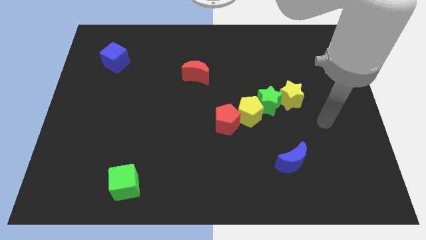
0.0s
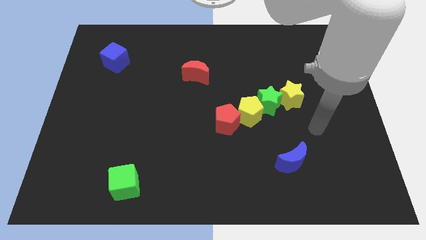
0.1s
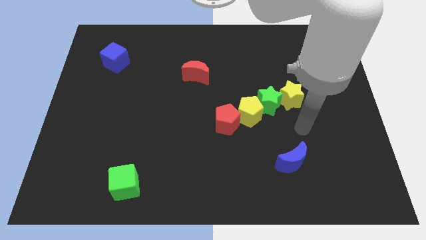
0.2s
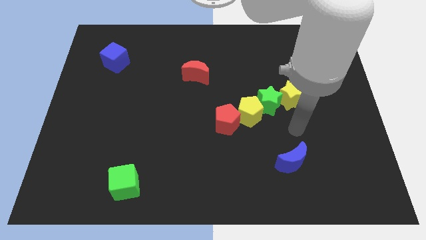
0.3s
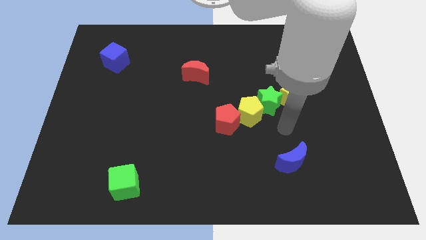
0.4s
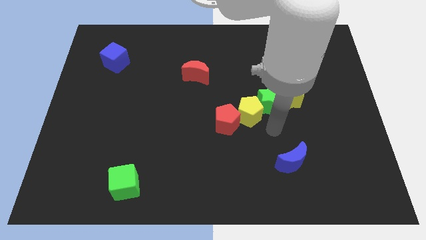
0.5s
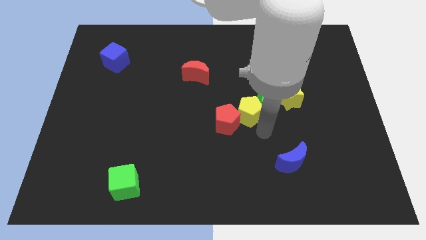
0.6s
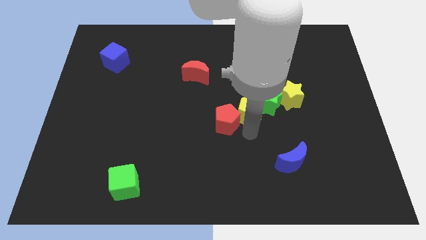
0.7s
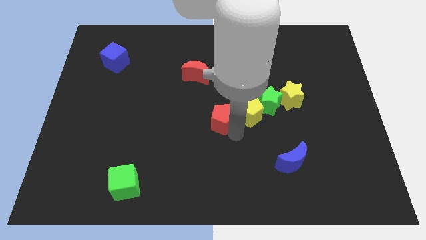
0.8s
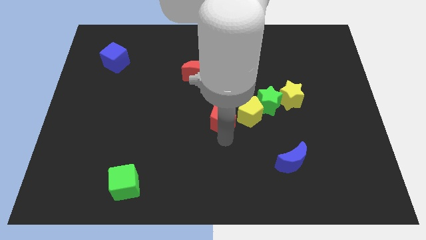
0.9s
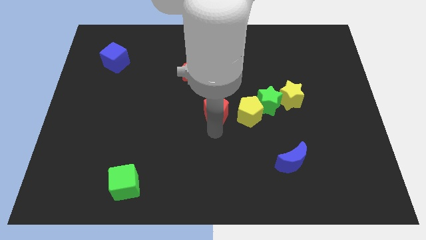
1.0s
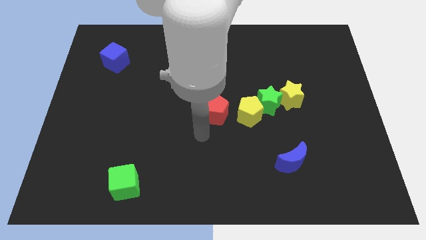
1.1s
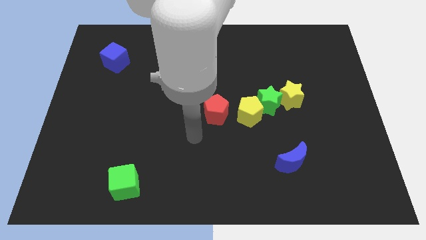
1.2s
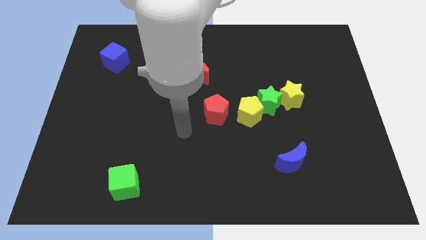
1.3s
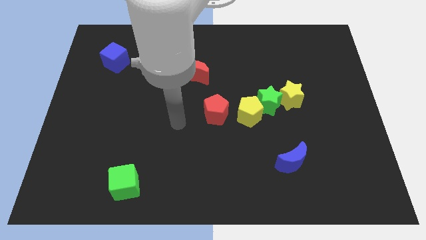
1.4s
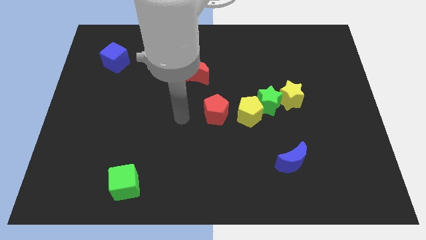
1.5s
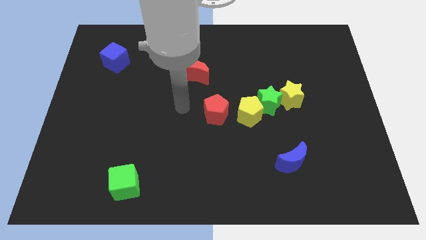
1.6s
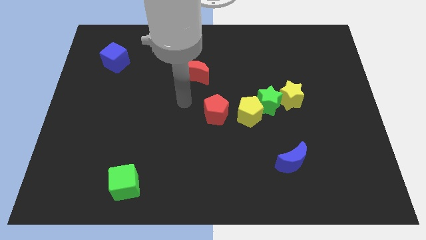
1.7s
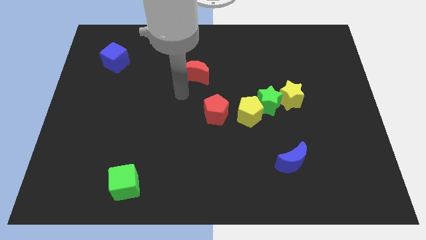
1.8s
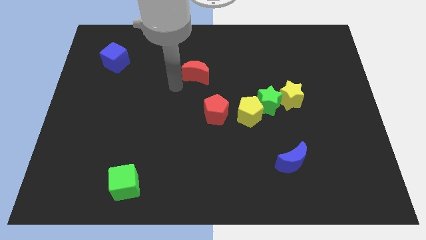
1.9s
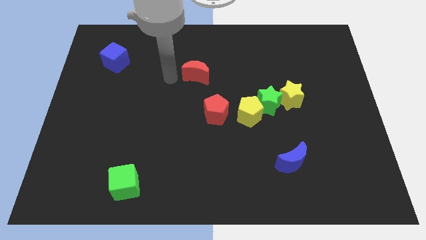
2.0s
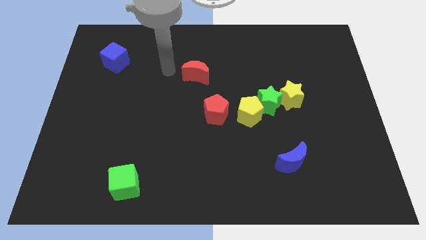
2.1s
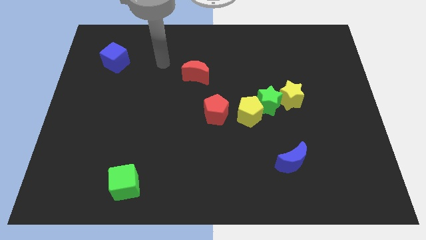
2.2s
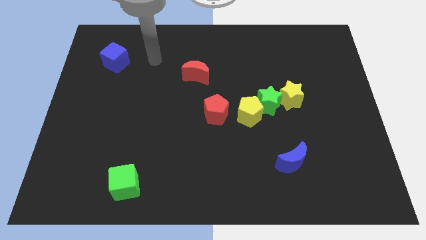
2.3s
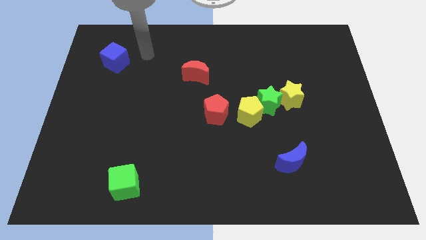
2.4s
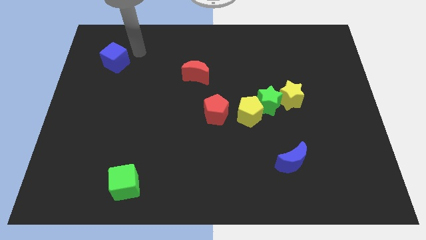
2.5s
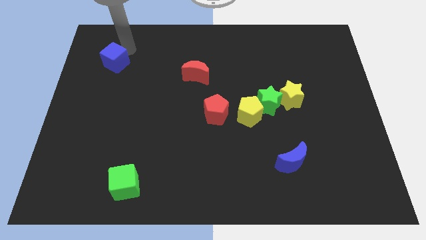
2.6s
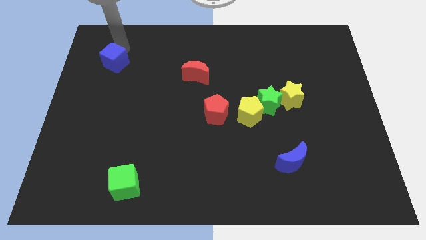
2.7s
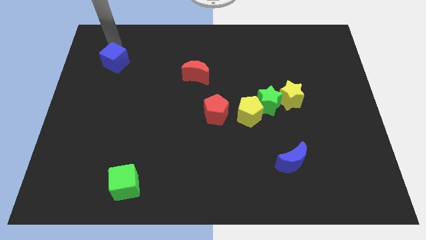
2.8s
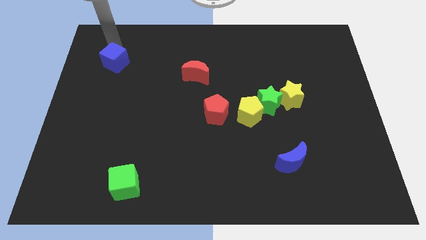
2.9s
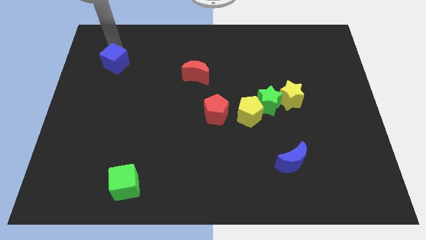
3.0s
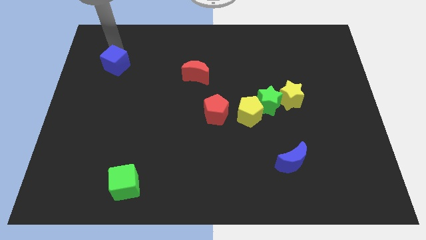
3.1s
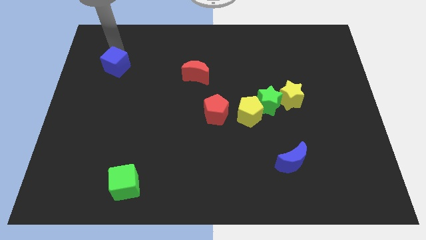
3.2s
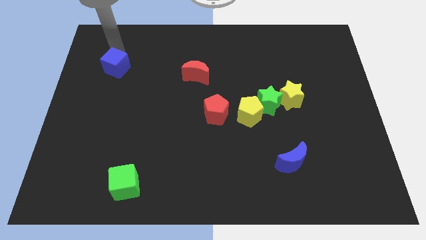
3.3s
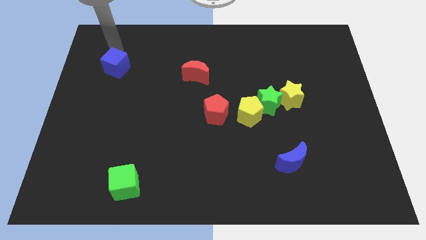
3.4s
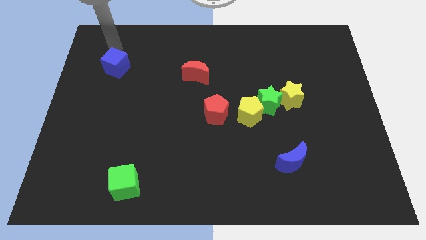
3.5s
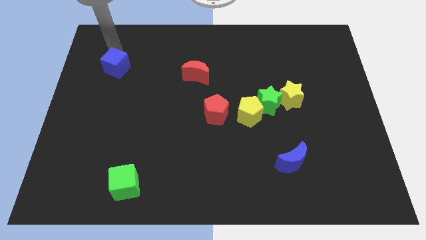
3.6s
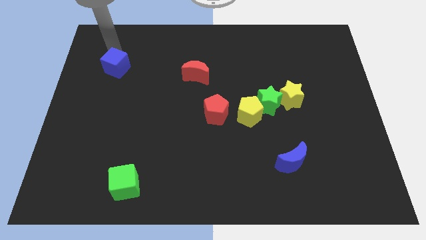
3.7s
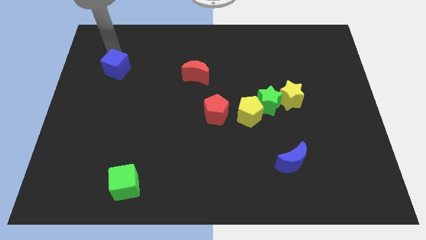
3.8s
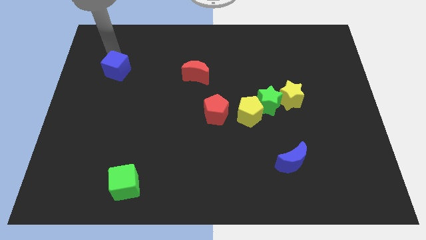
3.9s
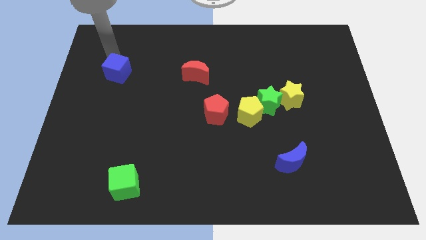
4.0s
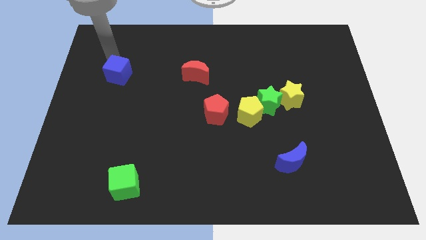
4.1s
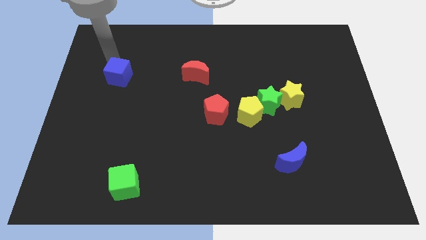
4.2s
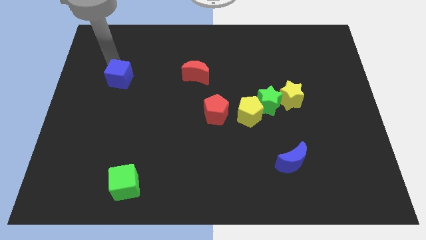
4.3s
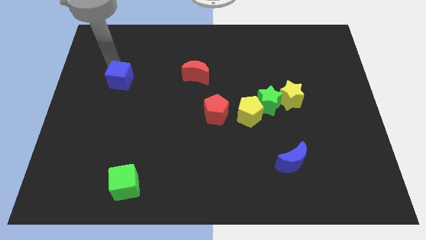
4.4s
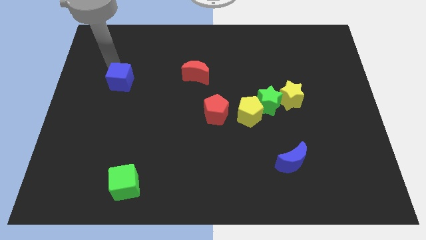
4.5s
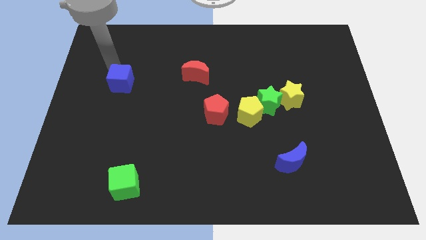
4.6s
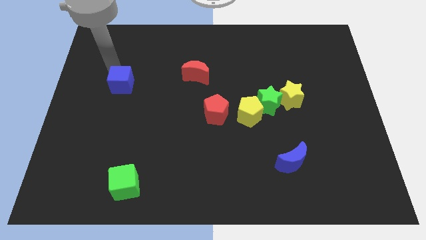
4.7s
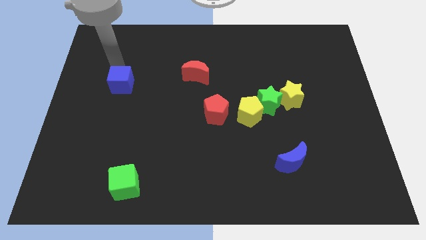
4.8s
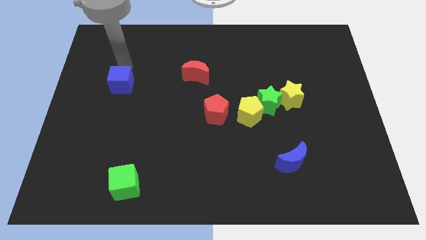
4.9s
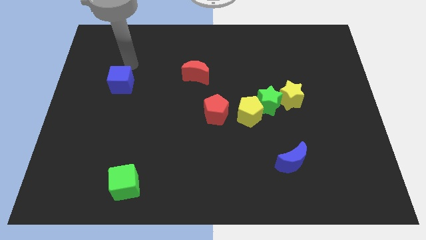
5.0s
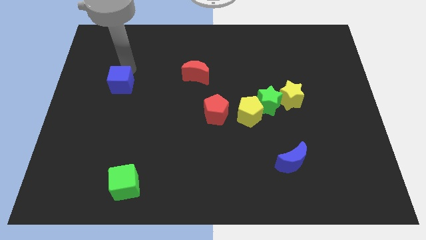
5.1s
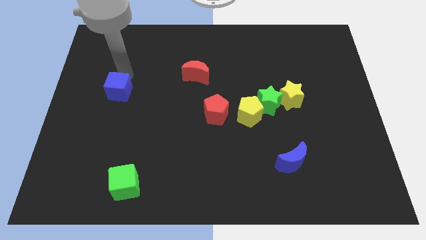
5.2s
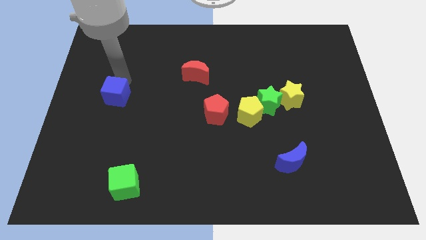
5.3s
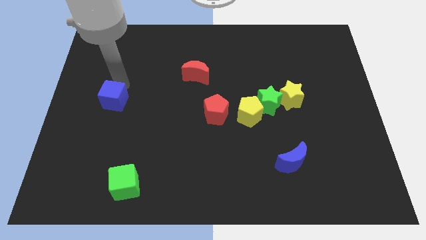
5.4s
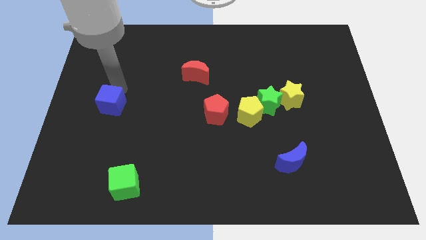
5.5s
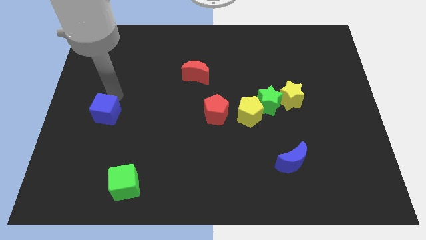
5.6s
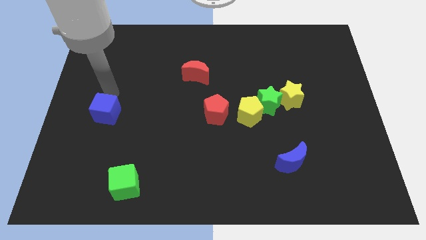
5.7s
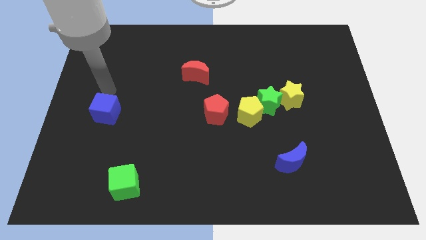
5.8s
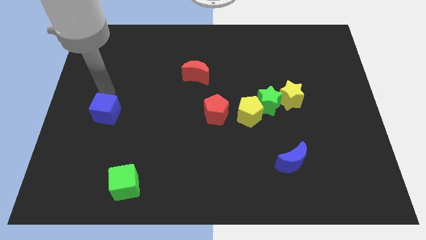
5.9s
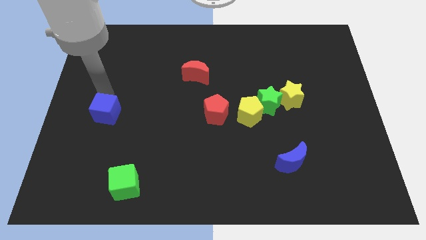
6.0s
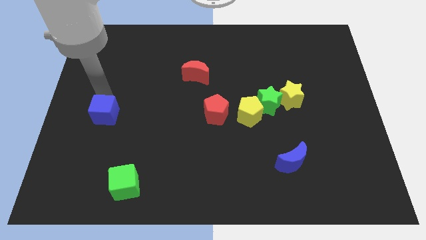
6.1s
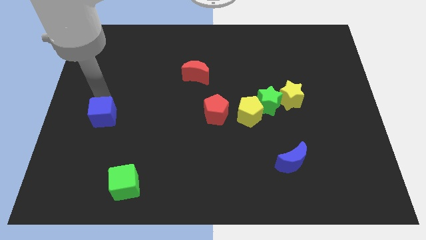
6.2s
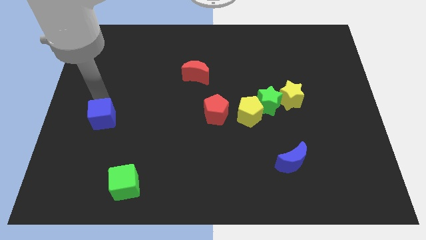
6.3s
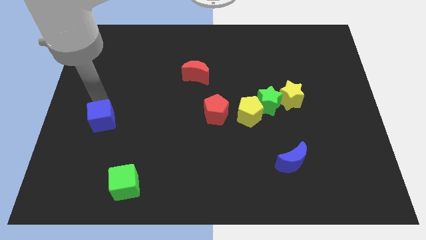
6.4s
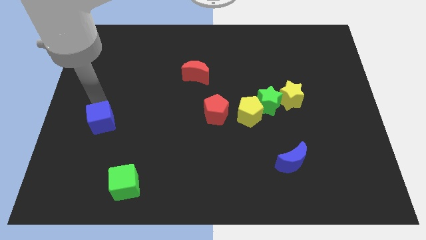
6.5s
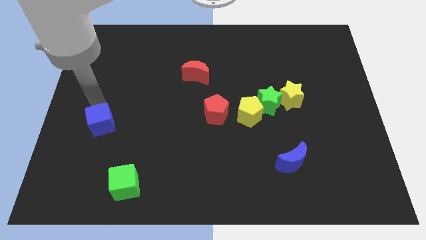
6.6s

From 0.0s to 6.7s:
move the blue cube down
